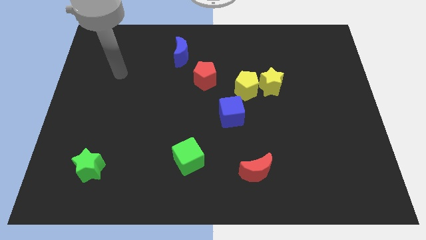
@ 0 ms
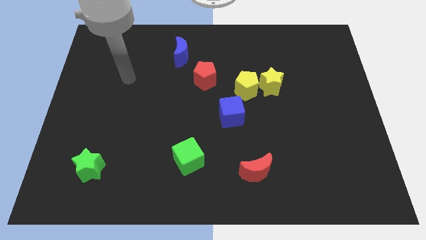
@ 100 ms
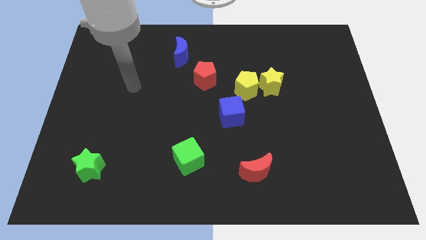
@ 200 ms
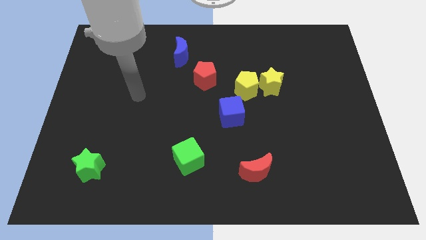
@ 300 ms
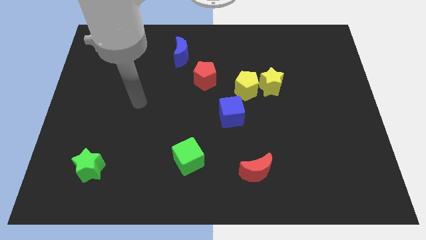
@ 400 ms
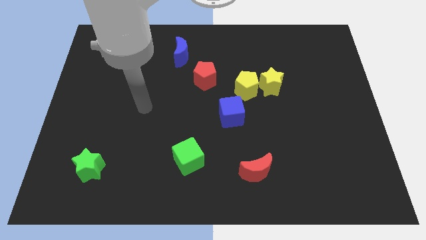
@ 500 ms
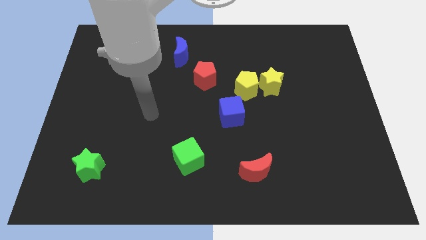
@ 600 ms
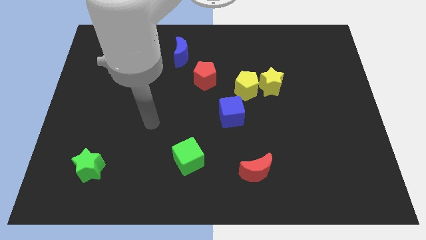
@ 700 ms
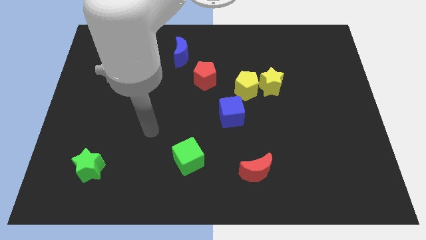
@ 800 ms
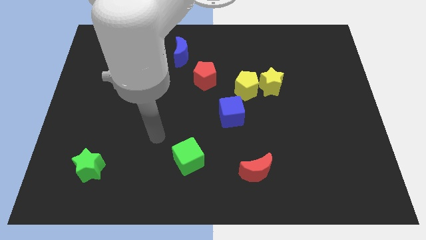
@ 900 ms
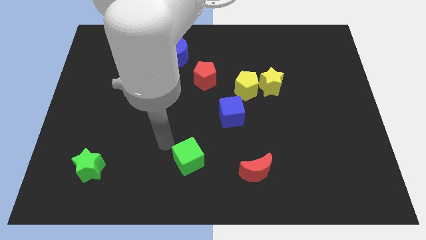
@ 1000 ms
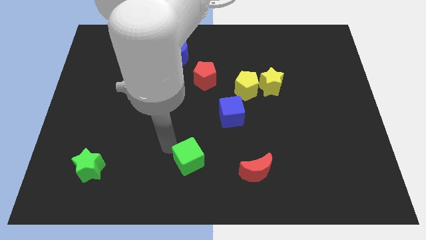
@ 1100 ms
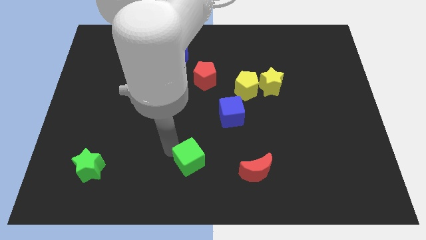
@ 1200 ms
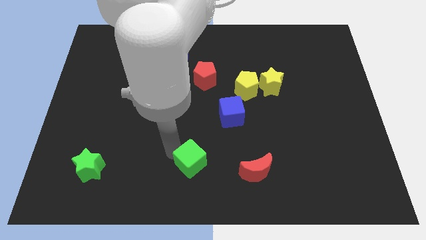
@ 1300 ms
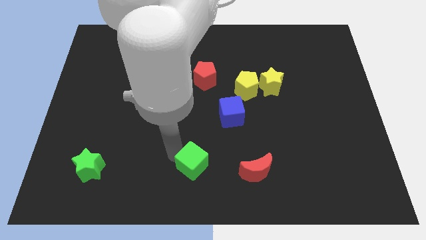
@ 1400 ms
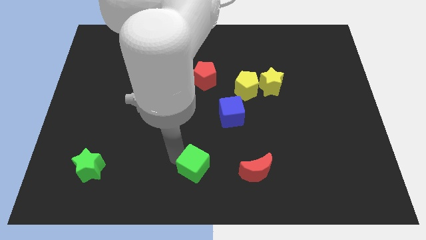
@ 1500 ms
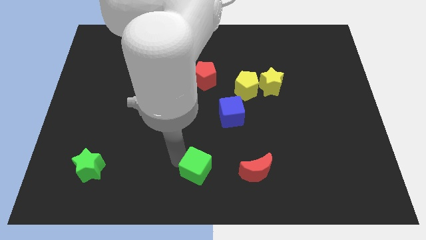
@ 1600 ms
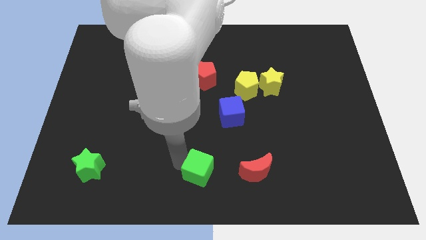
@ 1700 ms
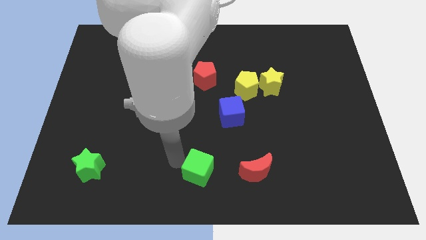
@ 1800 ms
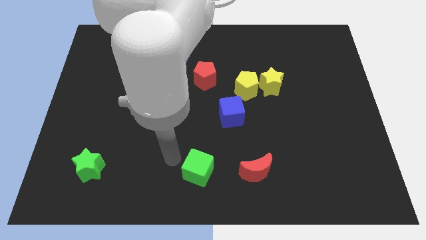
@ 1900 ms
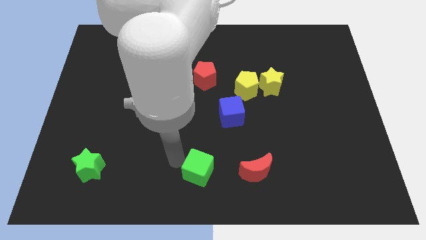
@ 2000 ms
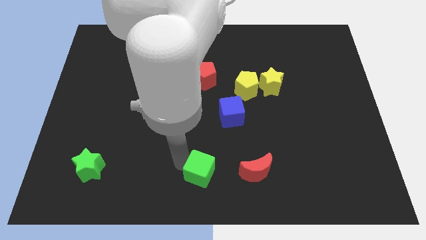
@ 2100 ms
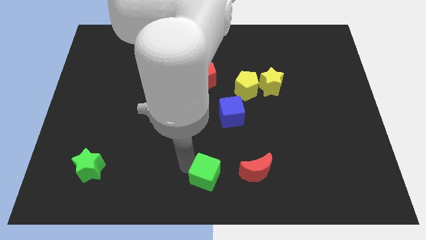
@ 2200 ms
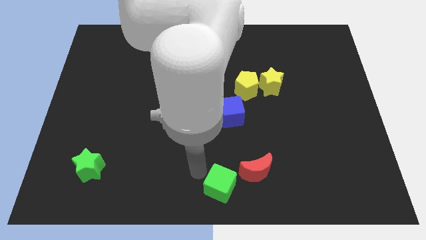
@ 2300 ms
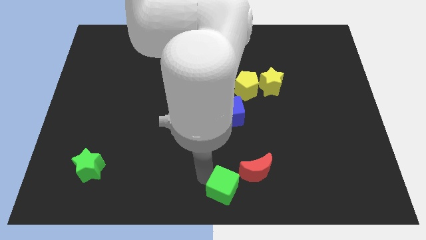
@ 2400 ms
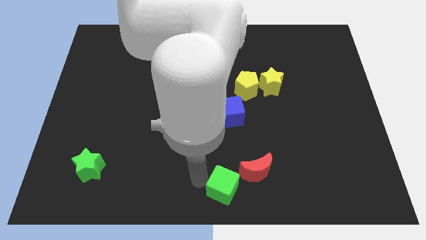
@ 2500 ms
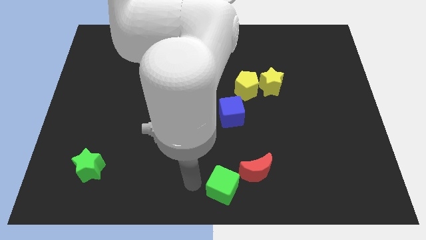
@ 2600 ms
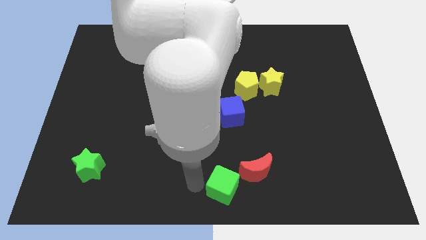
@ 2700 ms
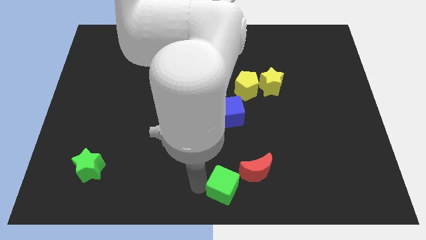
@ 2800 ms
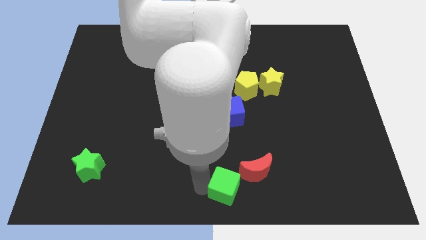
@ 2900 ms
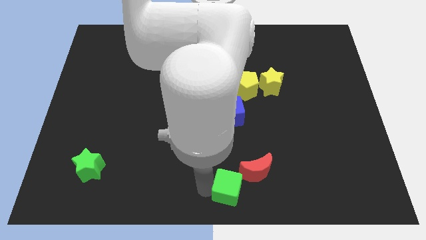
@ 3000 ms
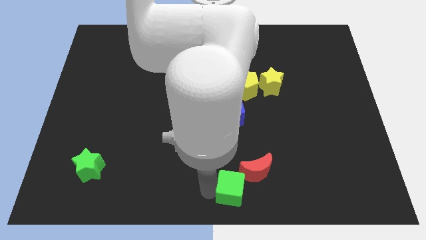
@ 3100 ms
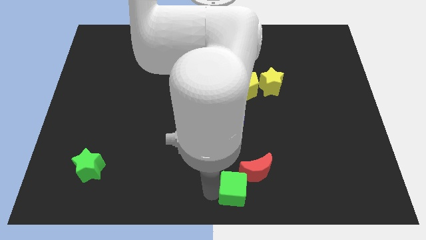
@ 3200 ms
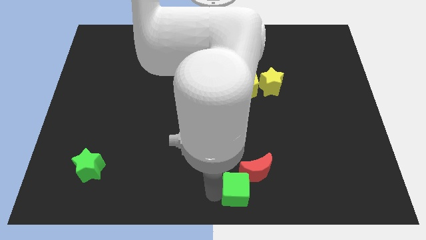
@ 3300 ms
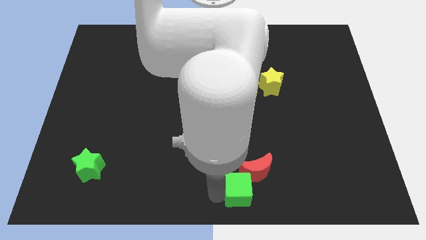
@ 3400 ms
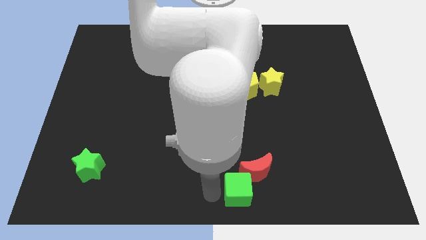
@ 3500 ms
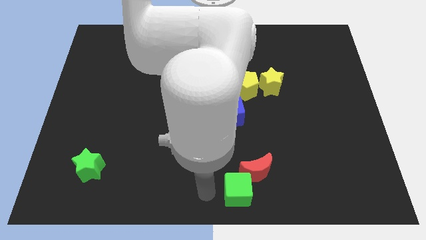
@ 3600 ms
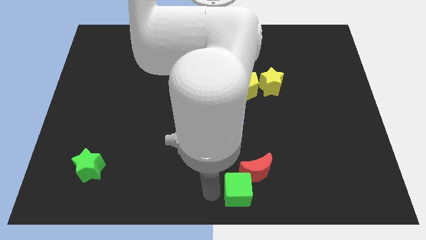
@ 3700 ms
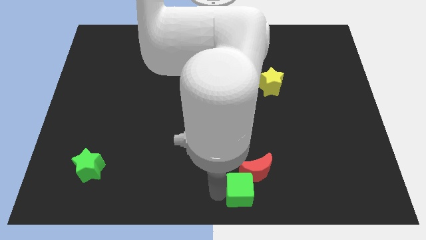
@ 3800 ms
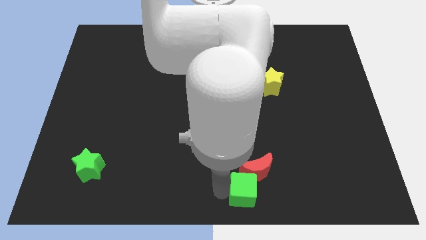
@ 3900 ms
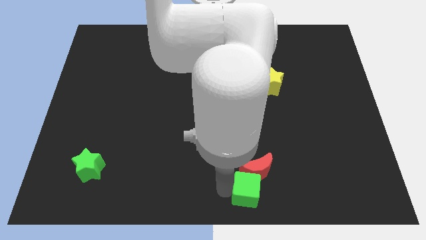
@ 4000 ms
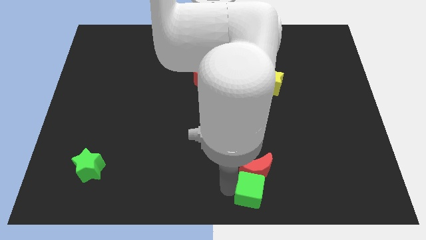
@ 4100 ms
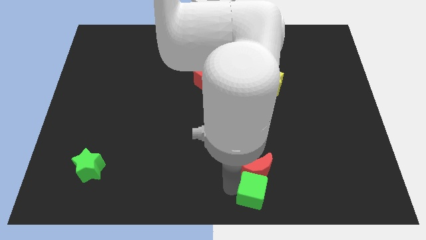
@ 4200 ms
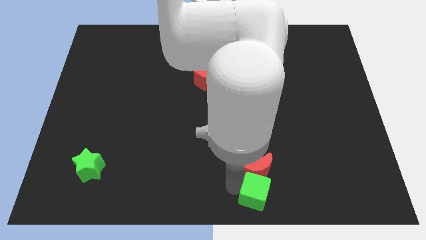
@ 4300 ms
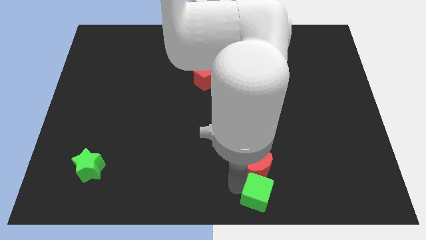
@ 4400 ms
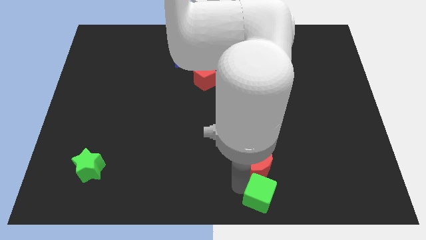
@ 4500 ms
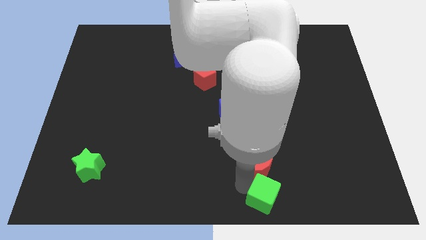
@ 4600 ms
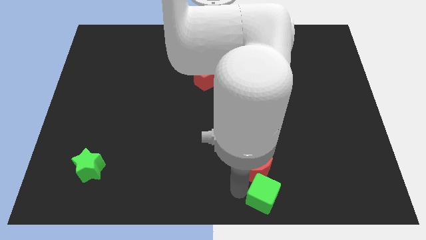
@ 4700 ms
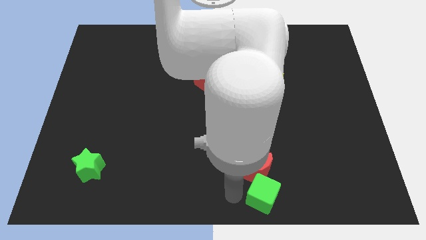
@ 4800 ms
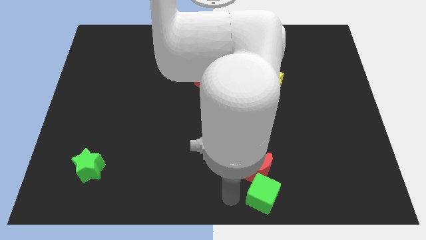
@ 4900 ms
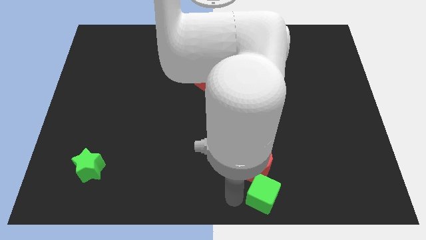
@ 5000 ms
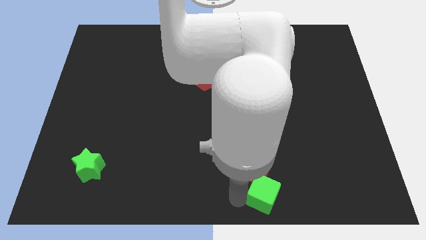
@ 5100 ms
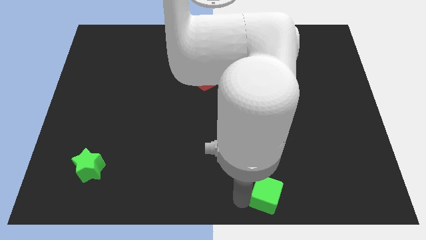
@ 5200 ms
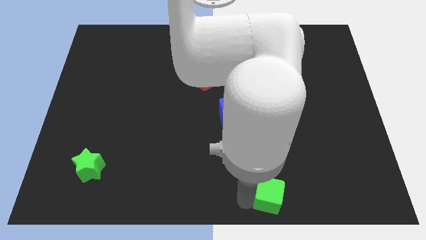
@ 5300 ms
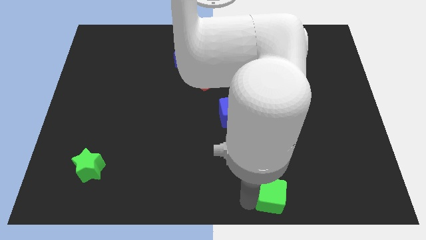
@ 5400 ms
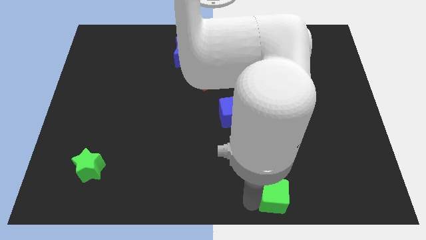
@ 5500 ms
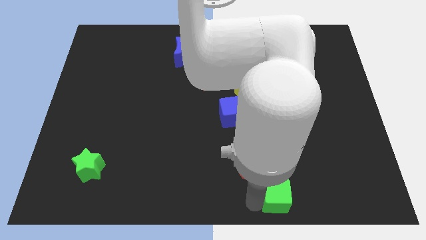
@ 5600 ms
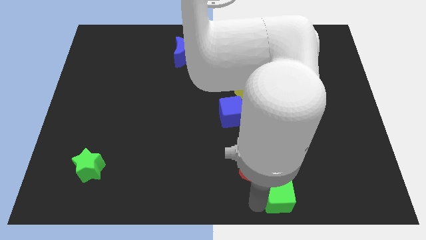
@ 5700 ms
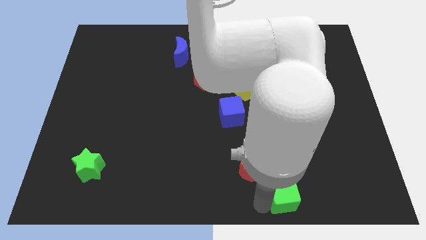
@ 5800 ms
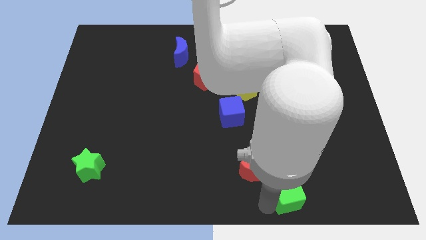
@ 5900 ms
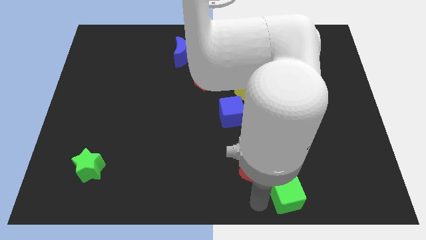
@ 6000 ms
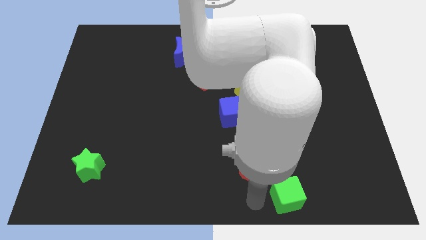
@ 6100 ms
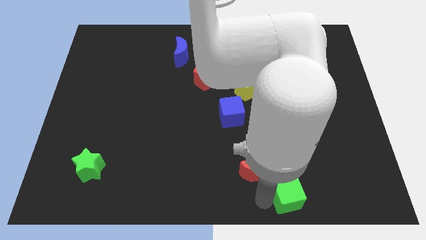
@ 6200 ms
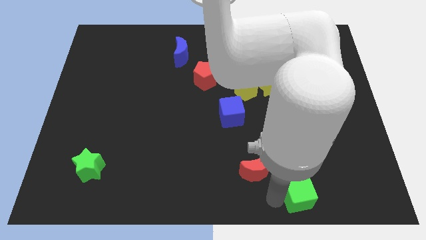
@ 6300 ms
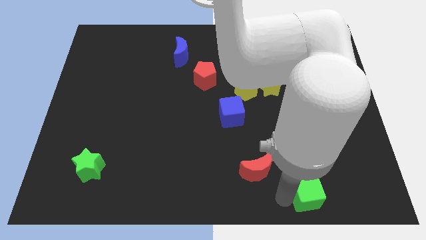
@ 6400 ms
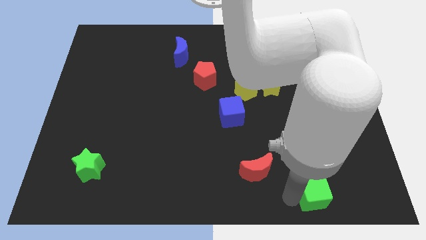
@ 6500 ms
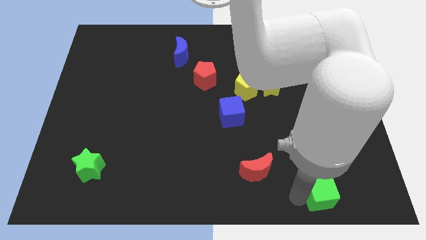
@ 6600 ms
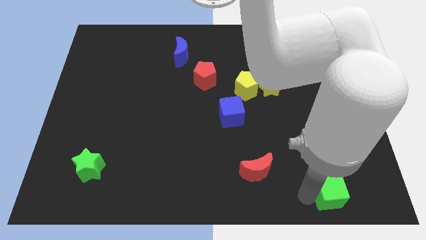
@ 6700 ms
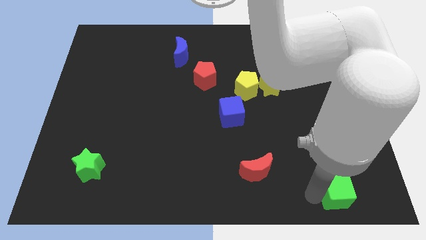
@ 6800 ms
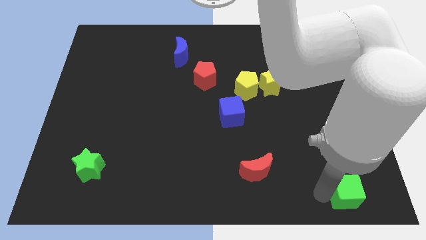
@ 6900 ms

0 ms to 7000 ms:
put the green cube to the lower right corner
